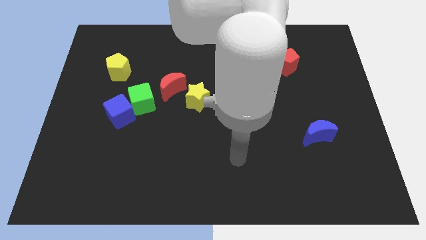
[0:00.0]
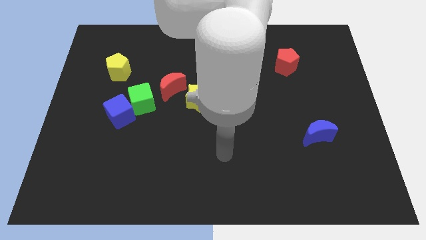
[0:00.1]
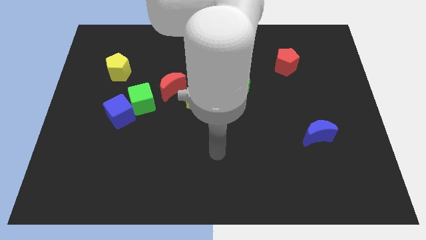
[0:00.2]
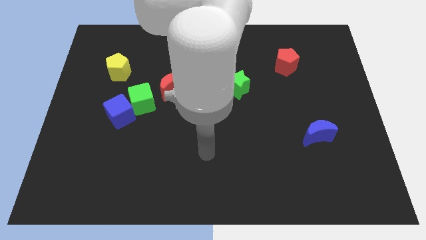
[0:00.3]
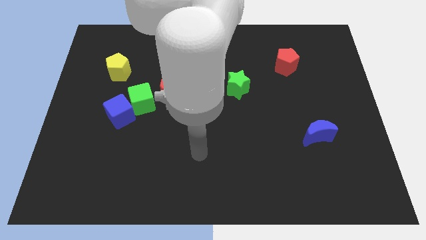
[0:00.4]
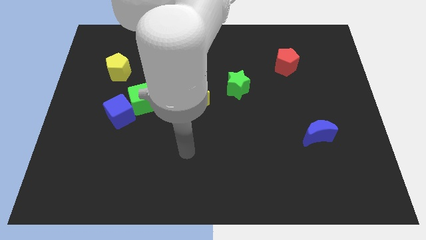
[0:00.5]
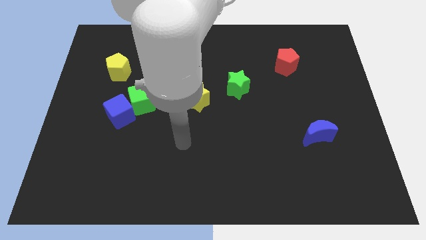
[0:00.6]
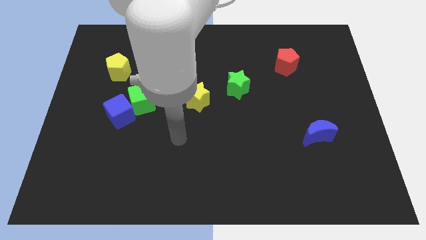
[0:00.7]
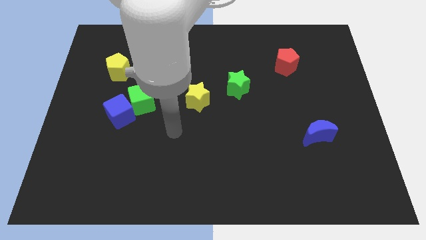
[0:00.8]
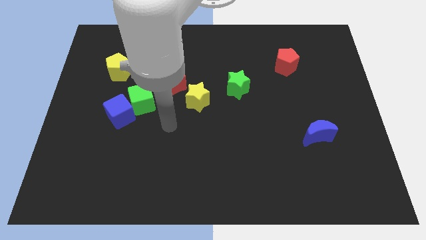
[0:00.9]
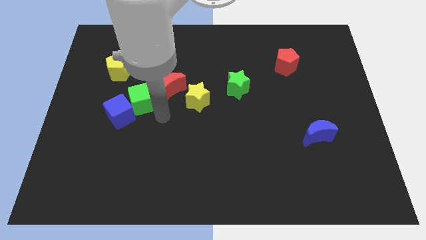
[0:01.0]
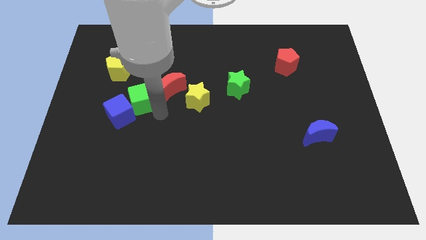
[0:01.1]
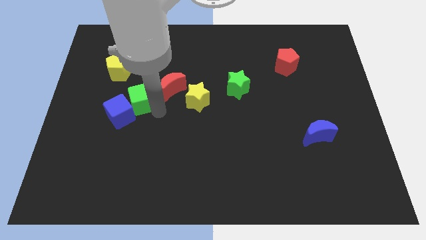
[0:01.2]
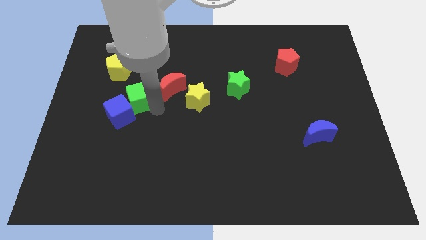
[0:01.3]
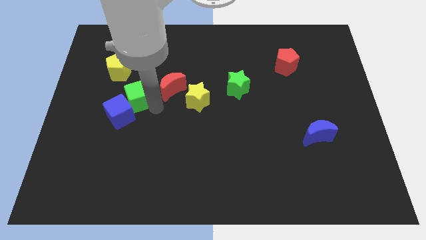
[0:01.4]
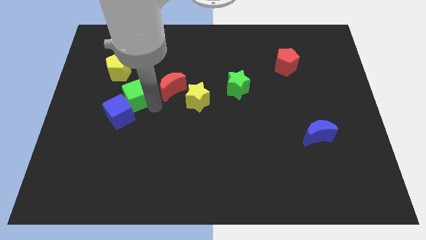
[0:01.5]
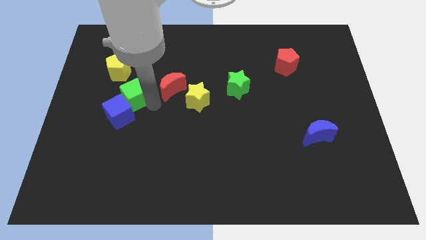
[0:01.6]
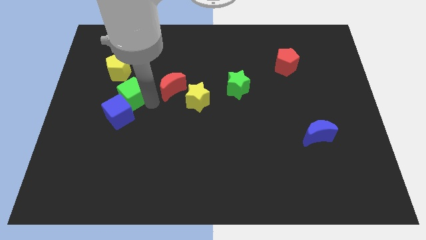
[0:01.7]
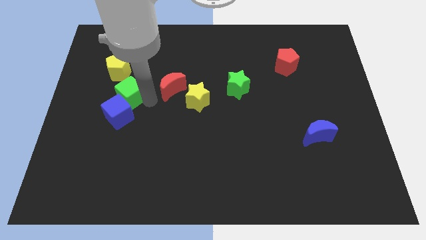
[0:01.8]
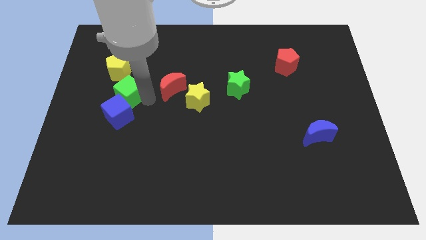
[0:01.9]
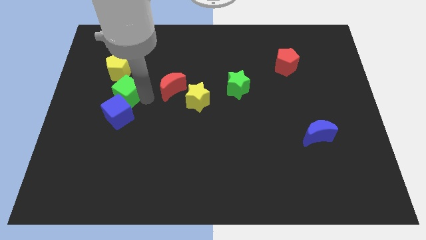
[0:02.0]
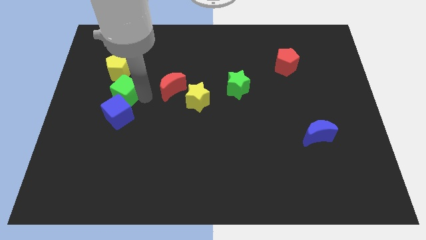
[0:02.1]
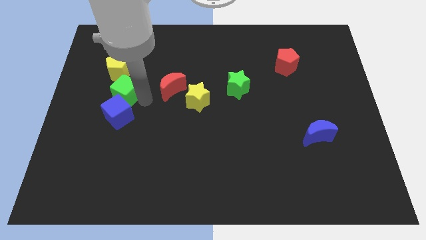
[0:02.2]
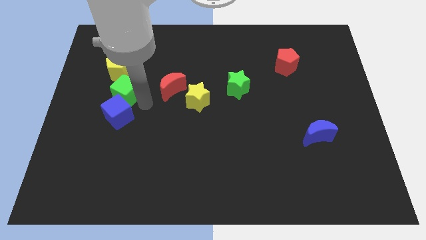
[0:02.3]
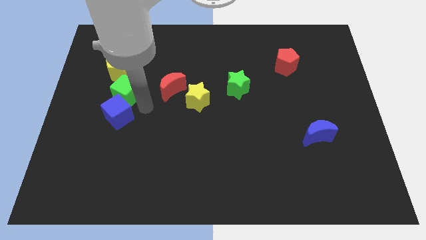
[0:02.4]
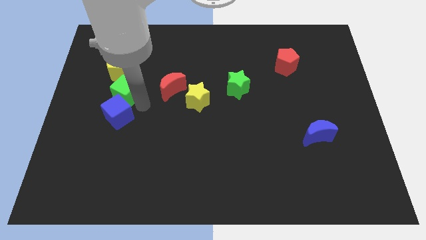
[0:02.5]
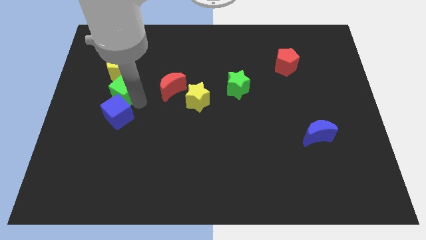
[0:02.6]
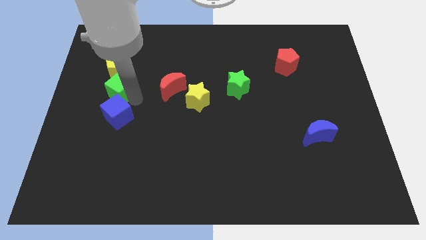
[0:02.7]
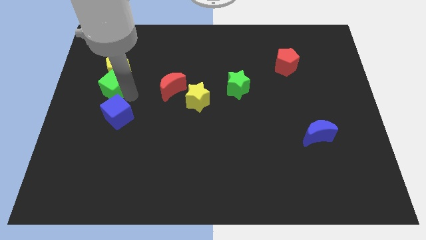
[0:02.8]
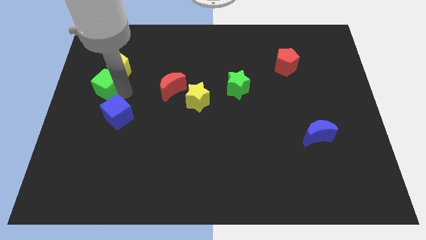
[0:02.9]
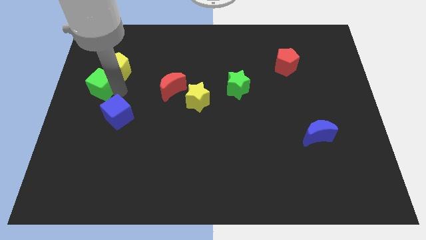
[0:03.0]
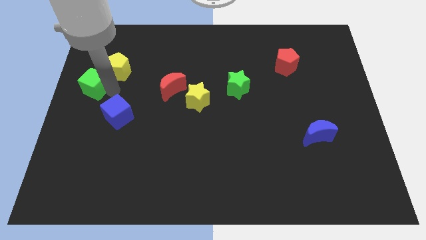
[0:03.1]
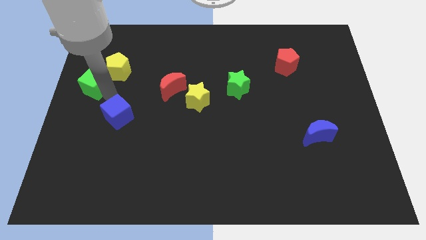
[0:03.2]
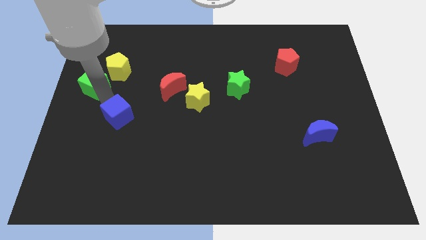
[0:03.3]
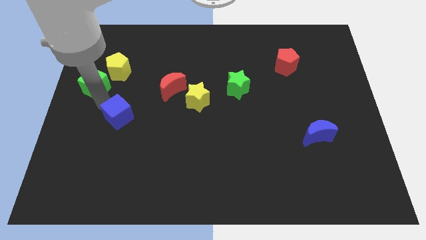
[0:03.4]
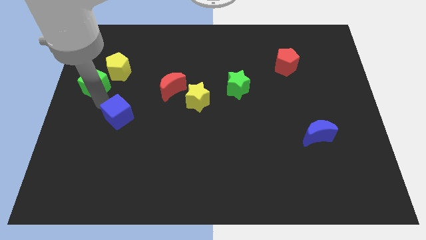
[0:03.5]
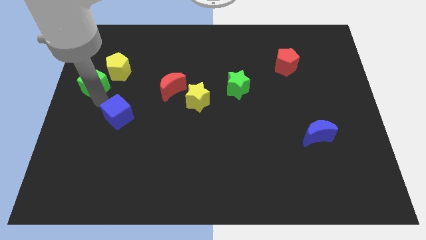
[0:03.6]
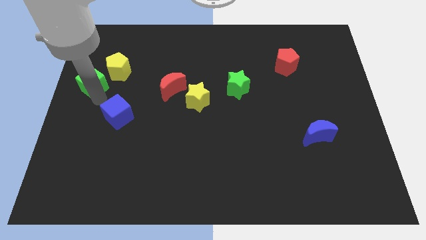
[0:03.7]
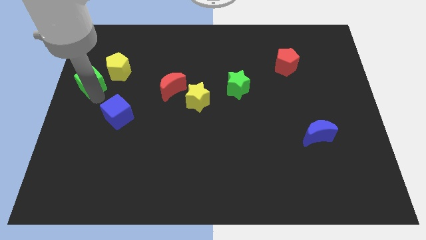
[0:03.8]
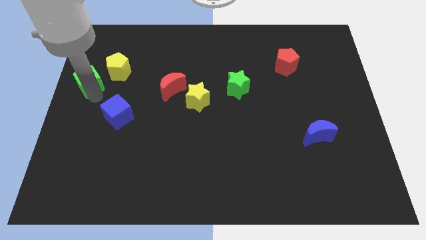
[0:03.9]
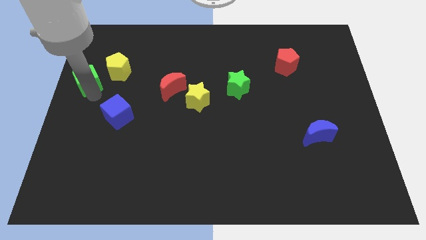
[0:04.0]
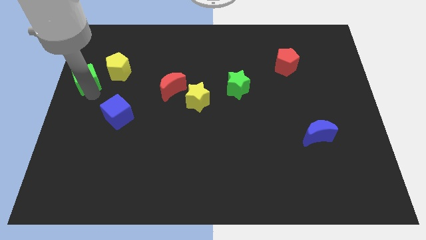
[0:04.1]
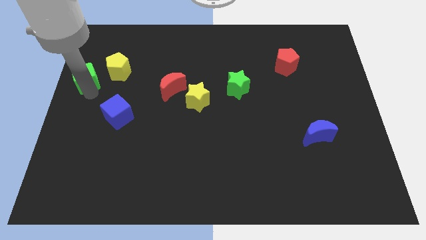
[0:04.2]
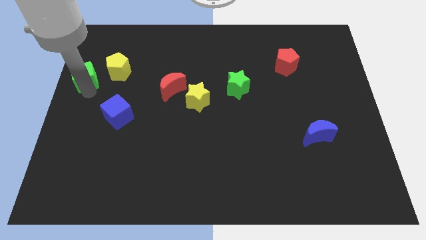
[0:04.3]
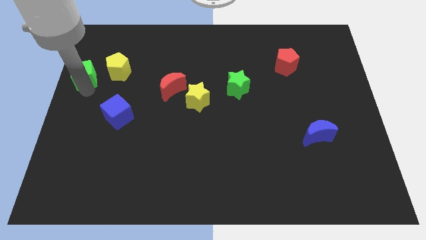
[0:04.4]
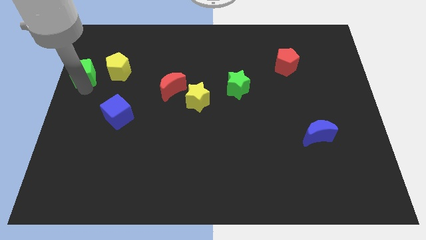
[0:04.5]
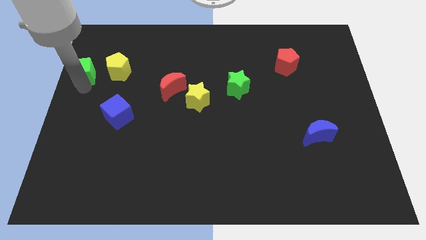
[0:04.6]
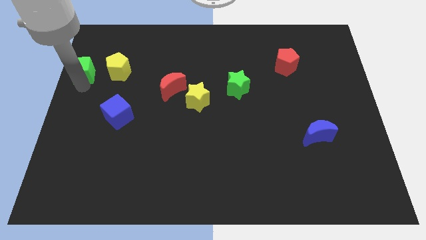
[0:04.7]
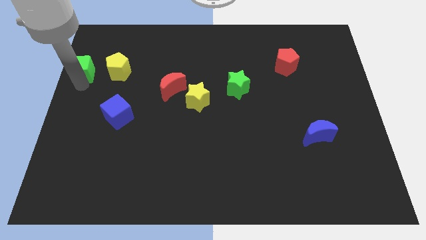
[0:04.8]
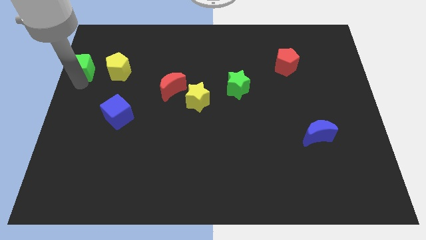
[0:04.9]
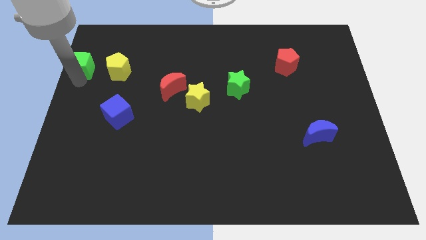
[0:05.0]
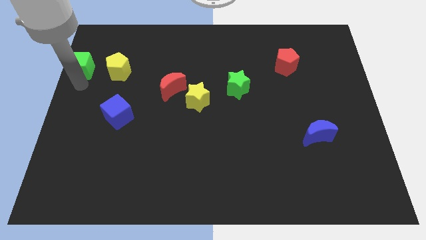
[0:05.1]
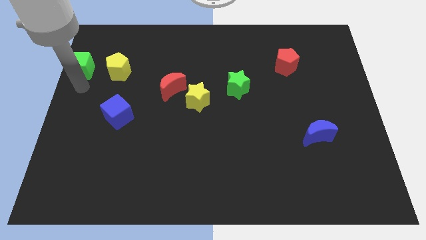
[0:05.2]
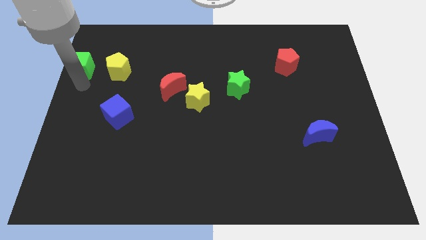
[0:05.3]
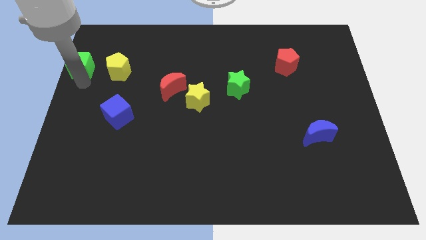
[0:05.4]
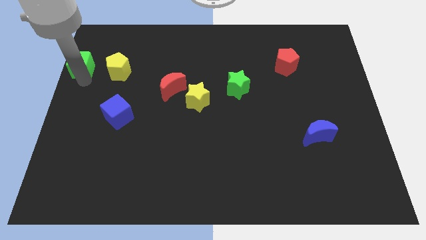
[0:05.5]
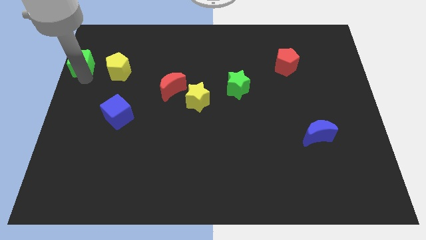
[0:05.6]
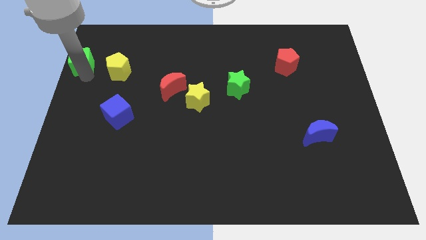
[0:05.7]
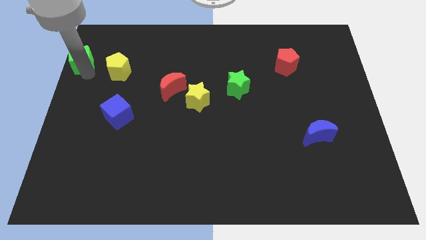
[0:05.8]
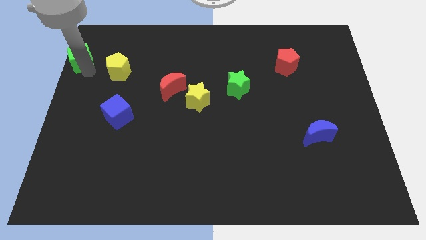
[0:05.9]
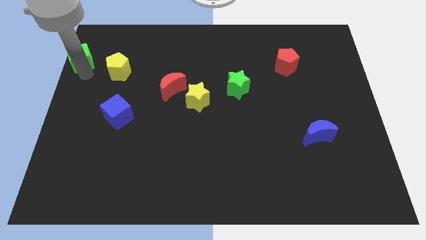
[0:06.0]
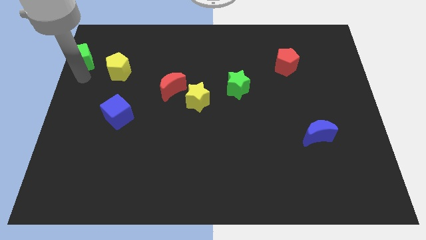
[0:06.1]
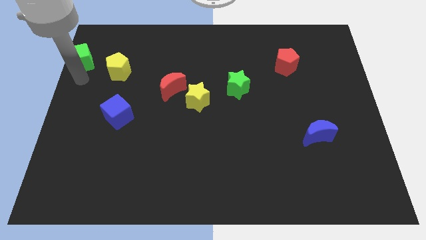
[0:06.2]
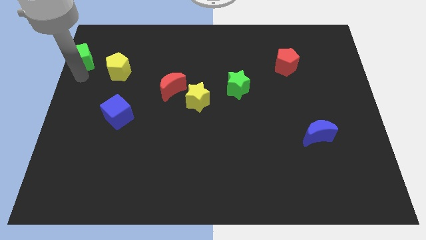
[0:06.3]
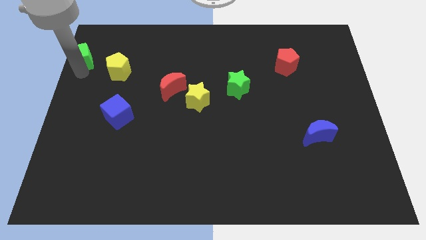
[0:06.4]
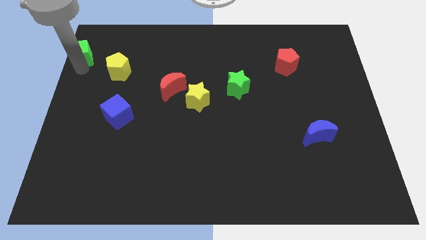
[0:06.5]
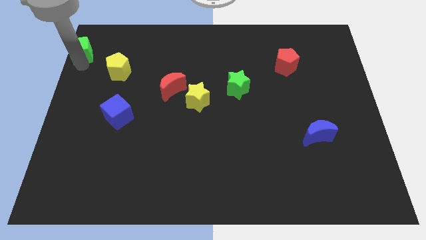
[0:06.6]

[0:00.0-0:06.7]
push the green cube to the upper left corner
